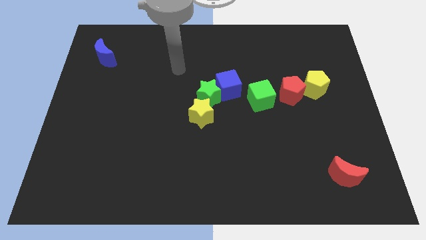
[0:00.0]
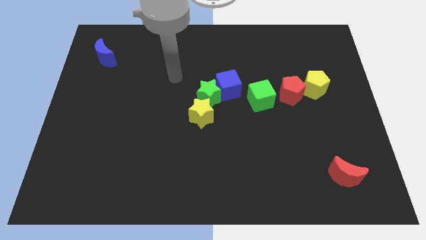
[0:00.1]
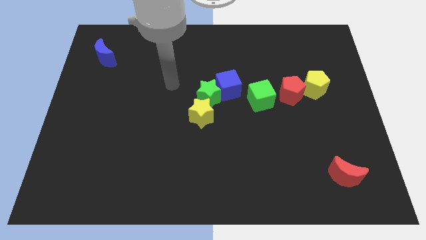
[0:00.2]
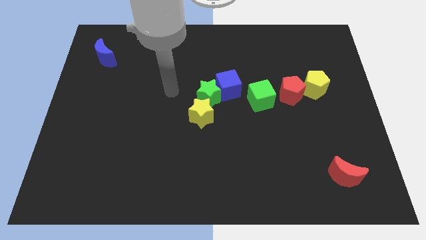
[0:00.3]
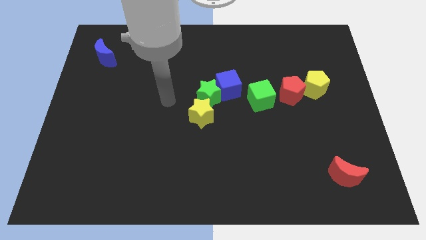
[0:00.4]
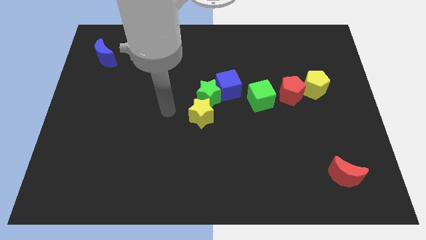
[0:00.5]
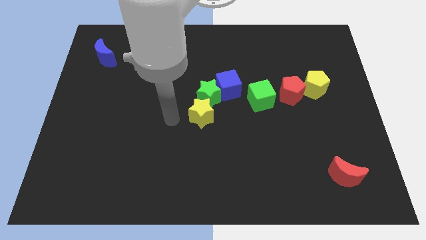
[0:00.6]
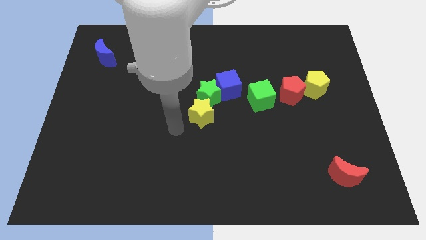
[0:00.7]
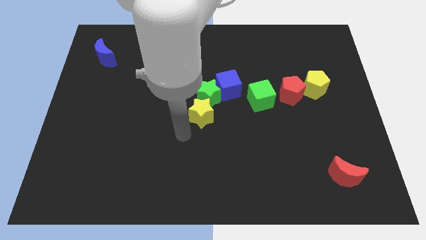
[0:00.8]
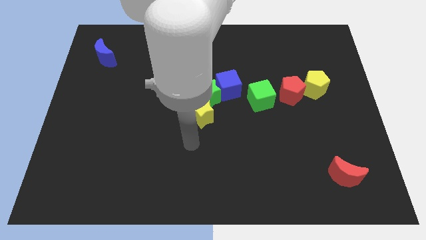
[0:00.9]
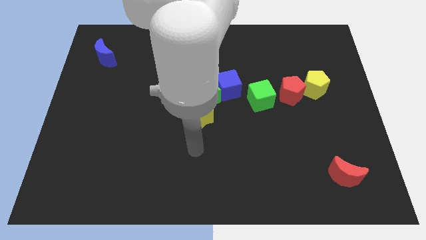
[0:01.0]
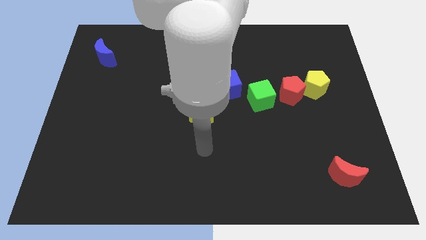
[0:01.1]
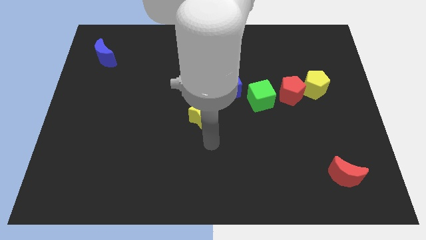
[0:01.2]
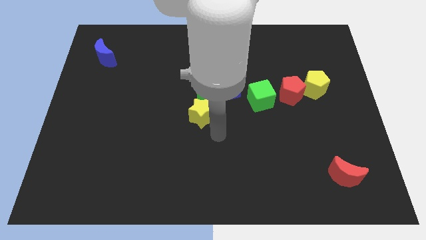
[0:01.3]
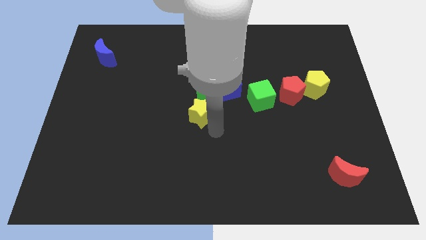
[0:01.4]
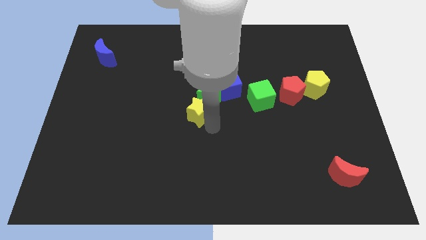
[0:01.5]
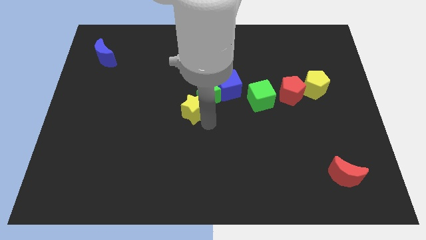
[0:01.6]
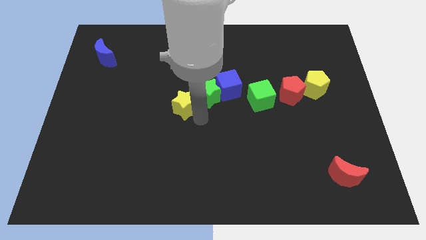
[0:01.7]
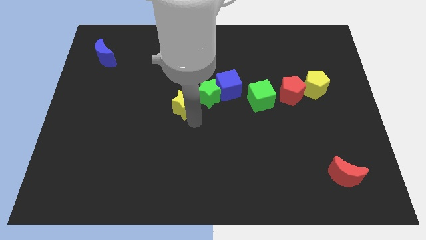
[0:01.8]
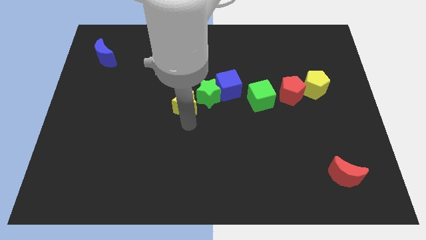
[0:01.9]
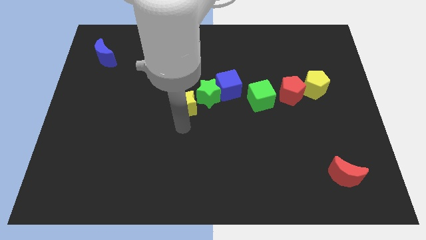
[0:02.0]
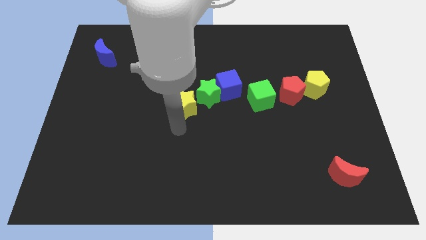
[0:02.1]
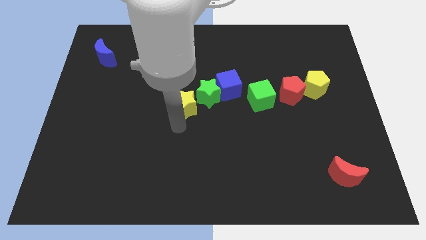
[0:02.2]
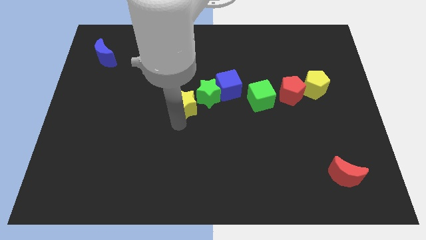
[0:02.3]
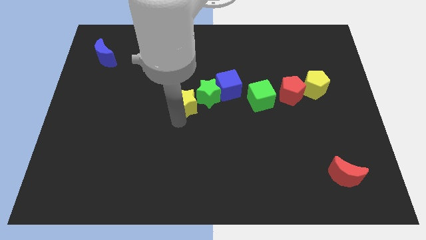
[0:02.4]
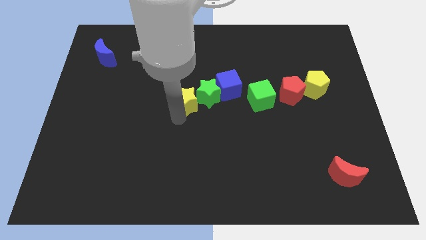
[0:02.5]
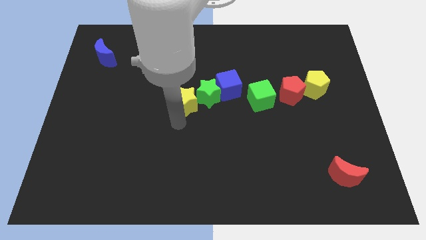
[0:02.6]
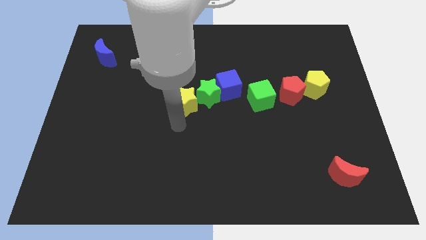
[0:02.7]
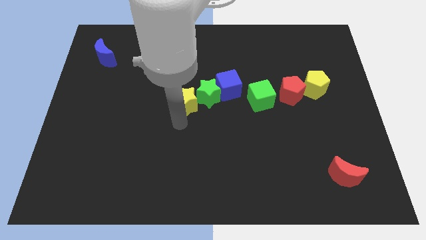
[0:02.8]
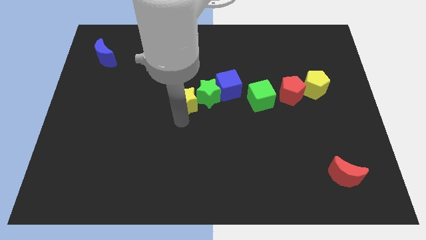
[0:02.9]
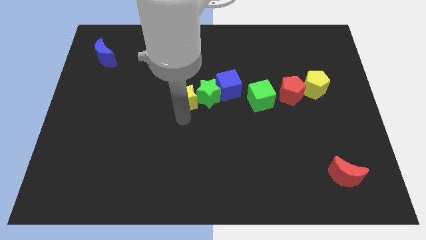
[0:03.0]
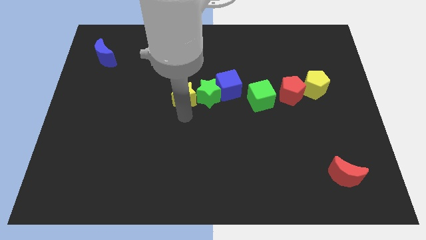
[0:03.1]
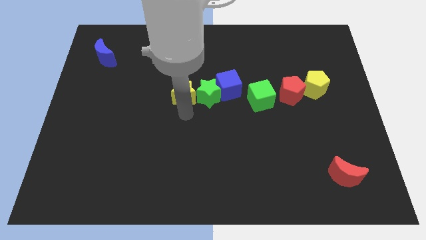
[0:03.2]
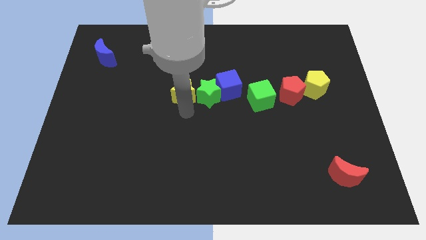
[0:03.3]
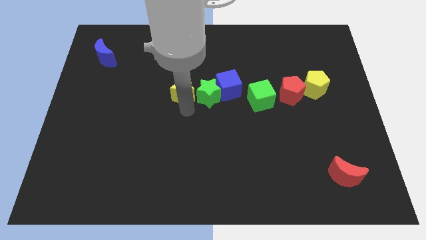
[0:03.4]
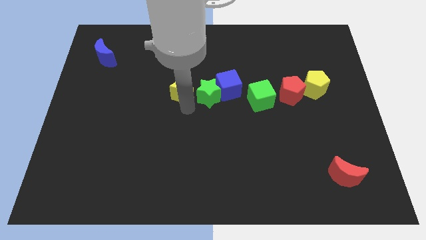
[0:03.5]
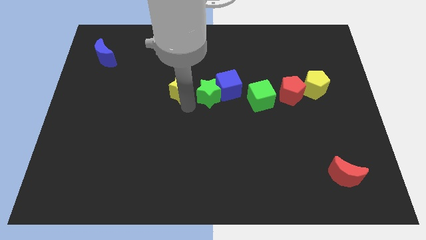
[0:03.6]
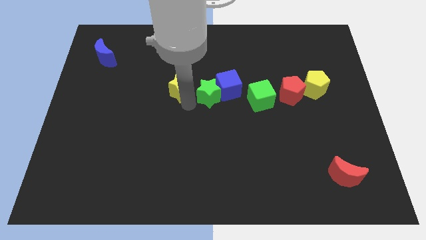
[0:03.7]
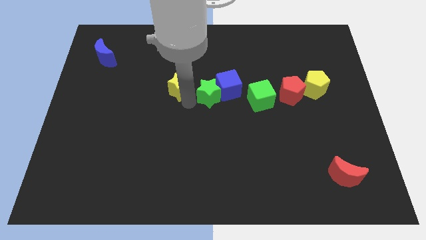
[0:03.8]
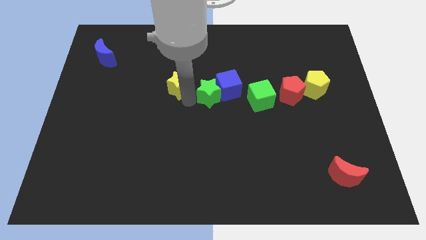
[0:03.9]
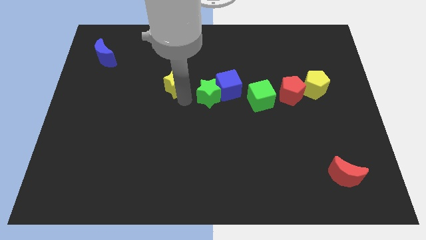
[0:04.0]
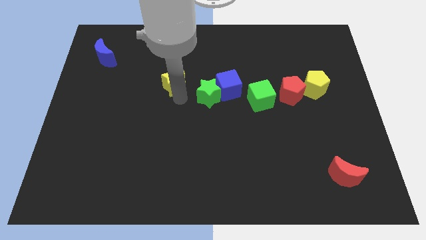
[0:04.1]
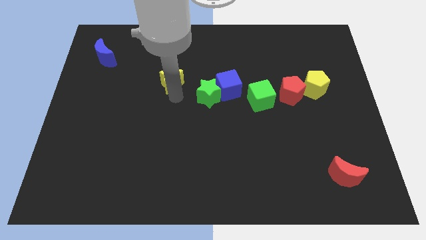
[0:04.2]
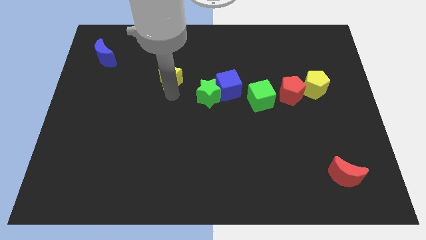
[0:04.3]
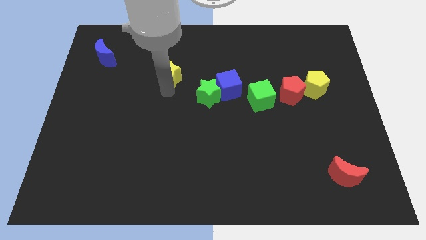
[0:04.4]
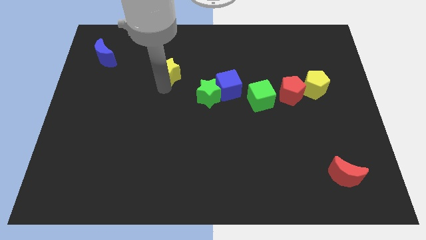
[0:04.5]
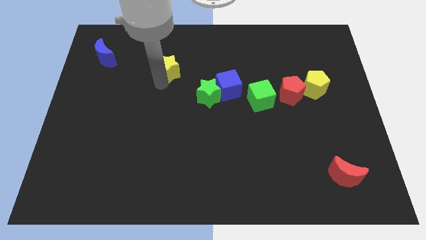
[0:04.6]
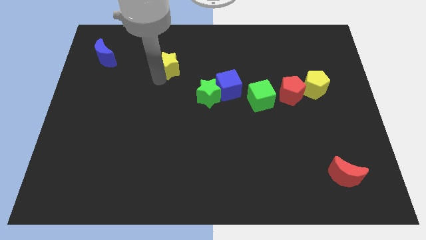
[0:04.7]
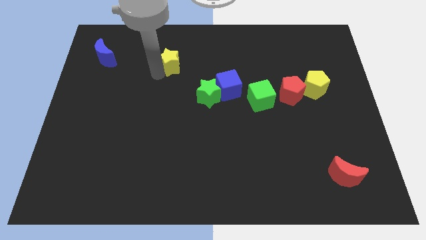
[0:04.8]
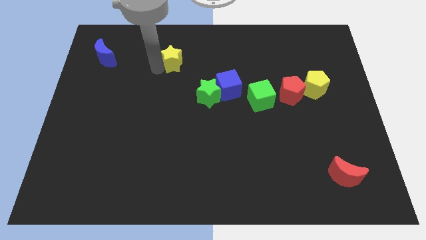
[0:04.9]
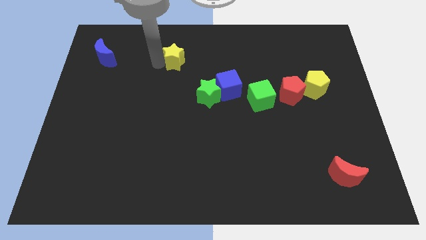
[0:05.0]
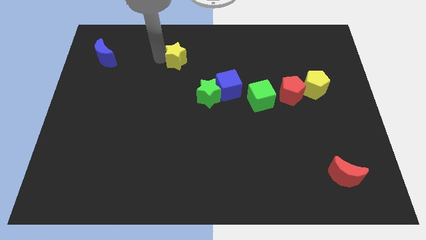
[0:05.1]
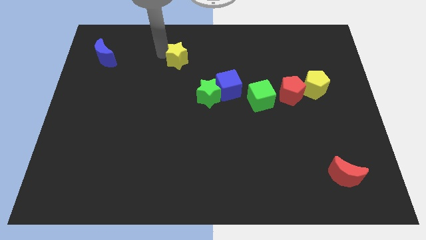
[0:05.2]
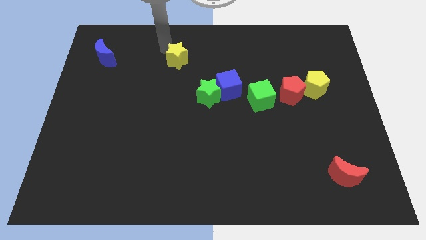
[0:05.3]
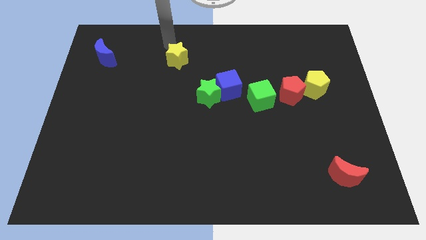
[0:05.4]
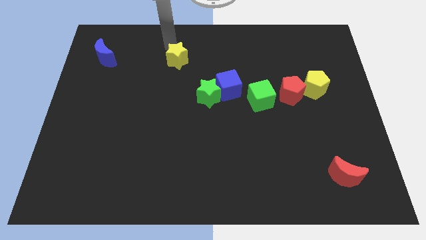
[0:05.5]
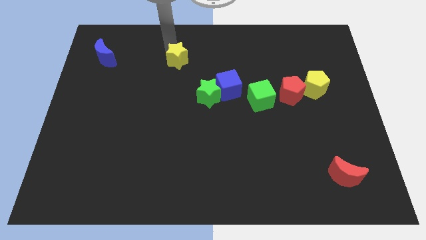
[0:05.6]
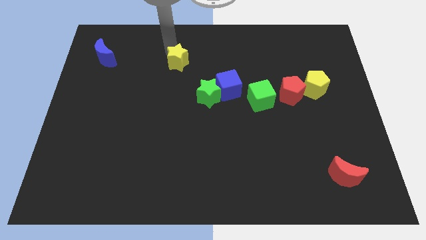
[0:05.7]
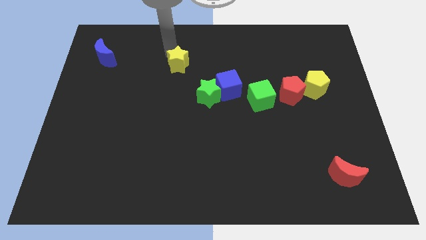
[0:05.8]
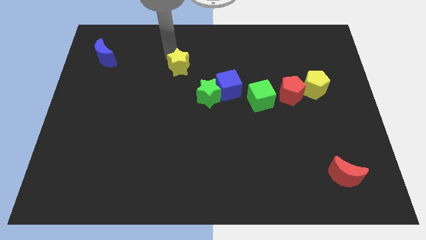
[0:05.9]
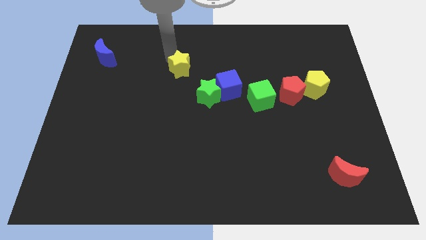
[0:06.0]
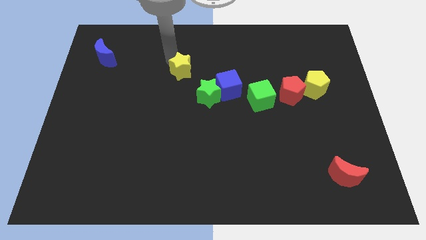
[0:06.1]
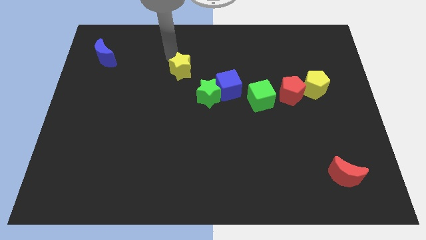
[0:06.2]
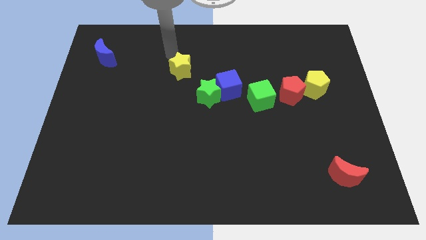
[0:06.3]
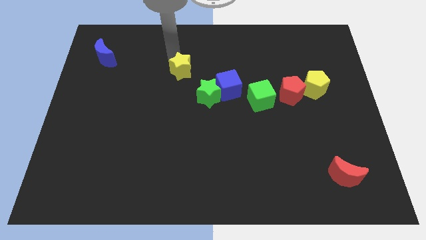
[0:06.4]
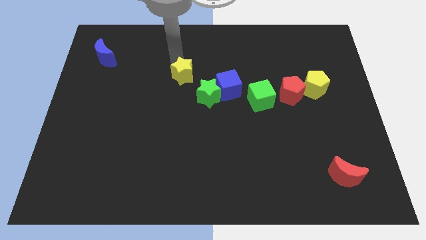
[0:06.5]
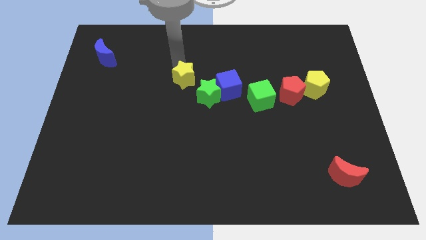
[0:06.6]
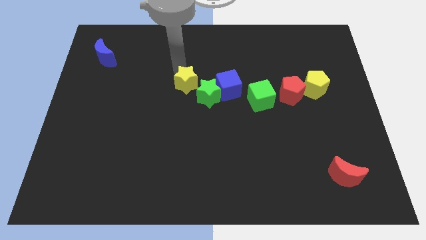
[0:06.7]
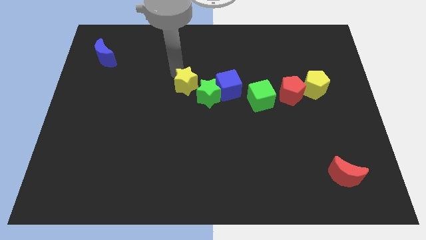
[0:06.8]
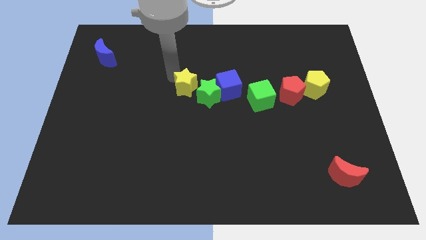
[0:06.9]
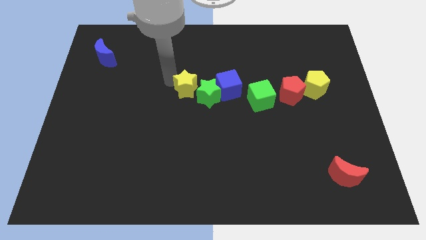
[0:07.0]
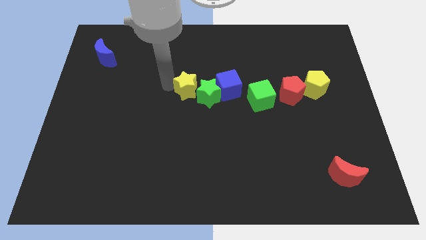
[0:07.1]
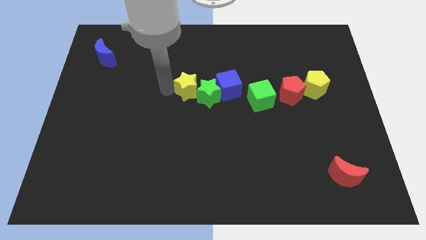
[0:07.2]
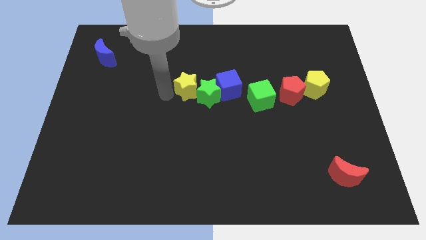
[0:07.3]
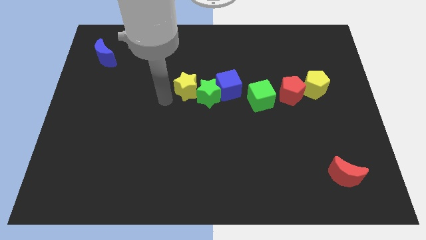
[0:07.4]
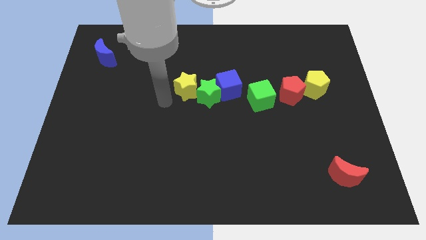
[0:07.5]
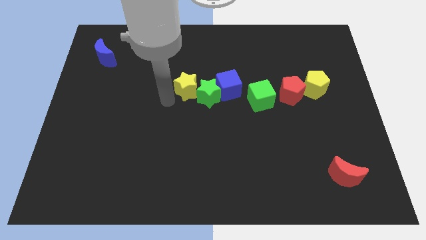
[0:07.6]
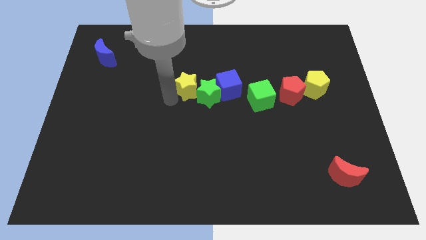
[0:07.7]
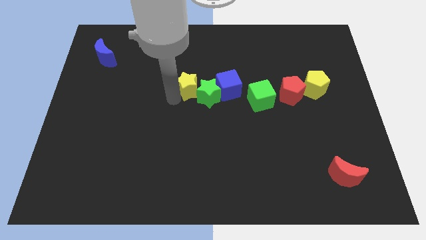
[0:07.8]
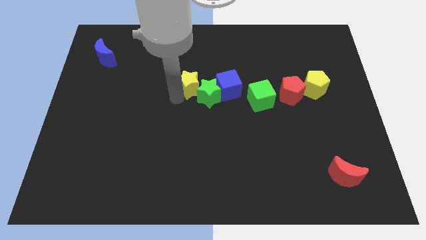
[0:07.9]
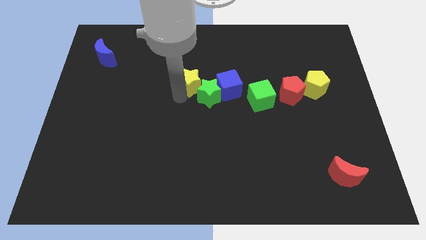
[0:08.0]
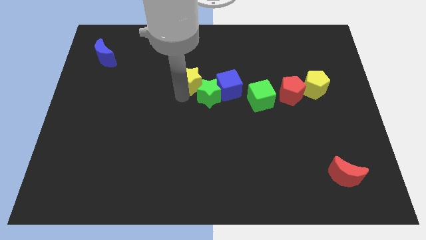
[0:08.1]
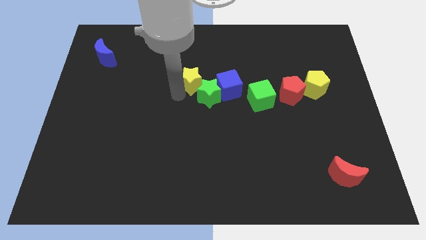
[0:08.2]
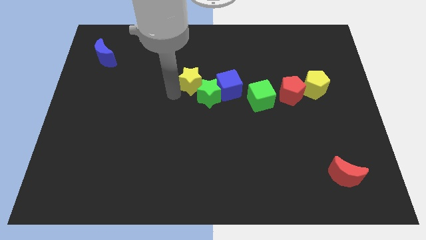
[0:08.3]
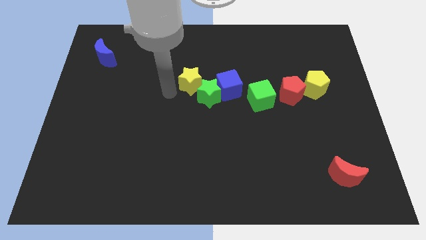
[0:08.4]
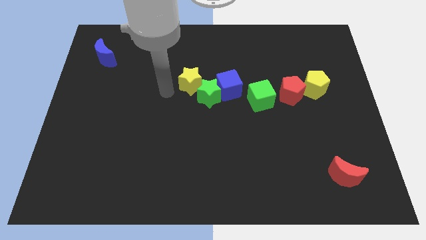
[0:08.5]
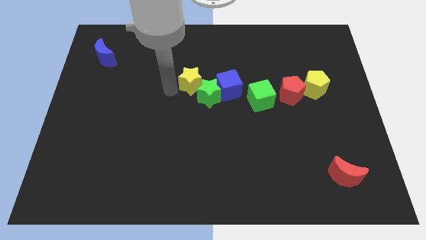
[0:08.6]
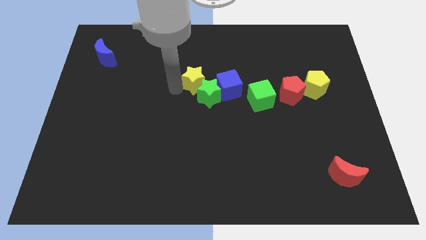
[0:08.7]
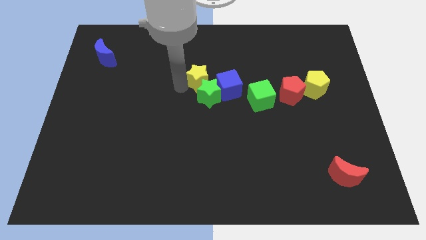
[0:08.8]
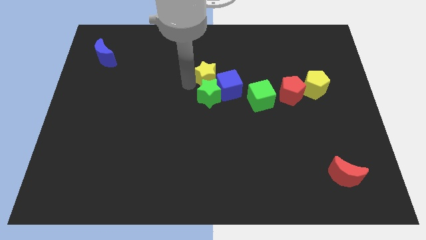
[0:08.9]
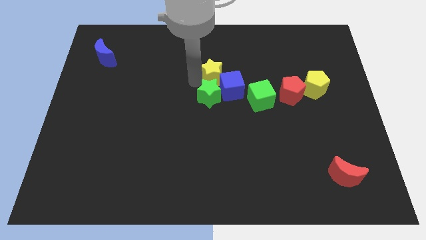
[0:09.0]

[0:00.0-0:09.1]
move the yellow star a bit upwards and right
